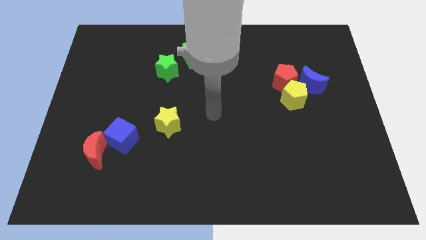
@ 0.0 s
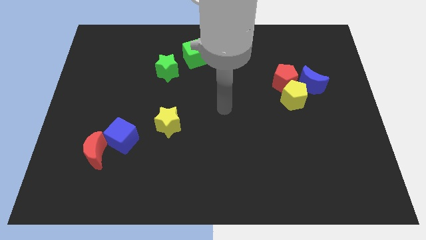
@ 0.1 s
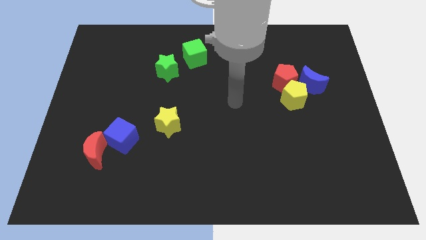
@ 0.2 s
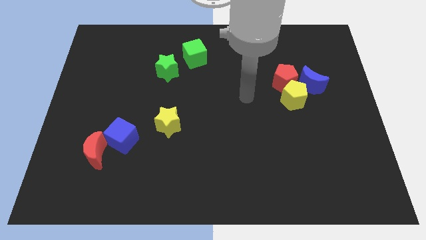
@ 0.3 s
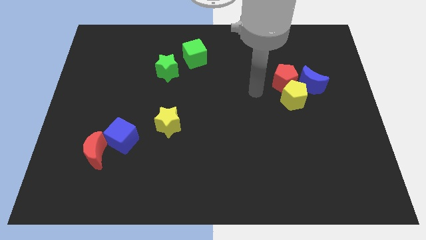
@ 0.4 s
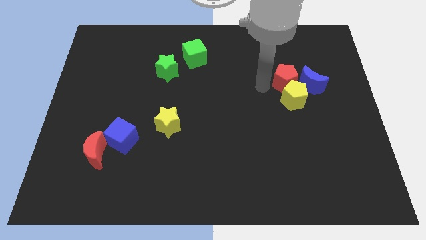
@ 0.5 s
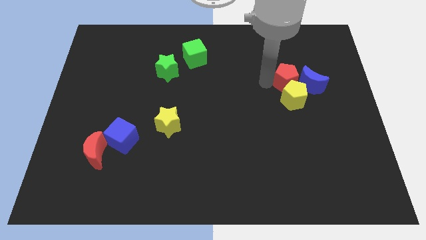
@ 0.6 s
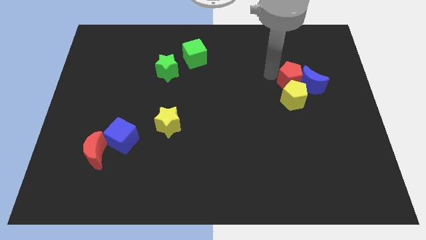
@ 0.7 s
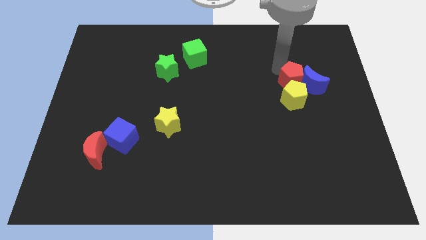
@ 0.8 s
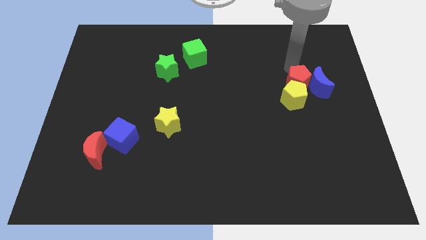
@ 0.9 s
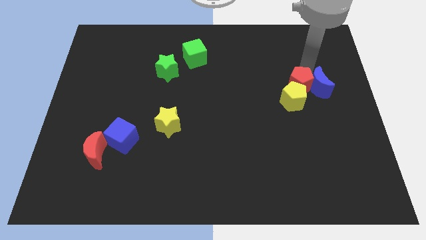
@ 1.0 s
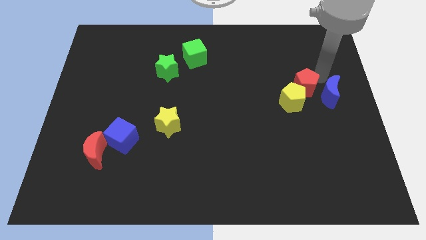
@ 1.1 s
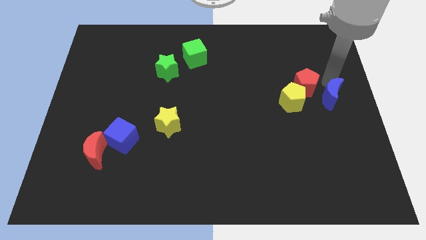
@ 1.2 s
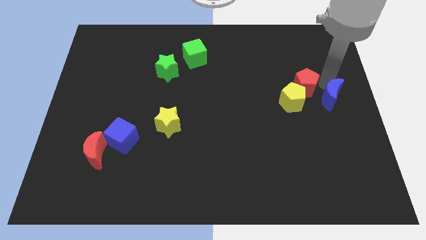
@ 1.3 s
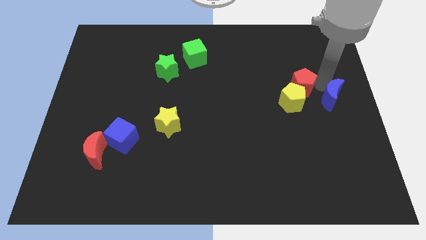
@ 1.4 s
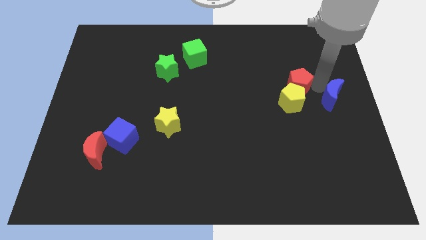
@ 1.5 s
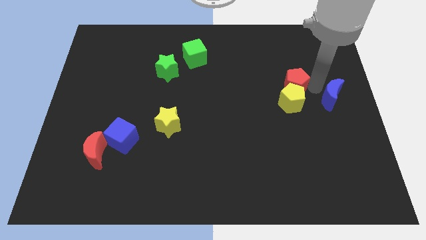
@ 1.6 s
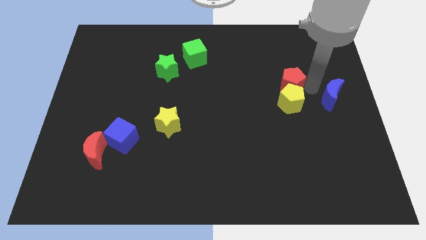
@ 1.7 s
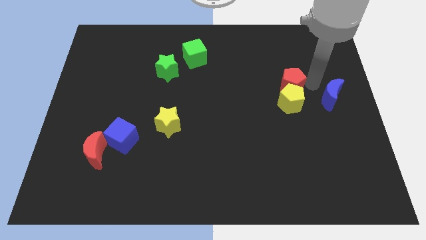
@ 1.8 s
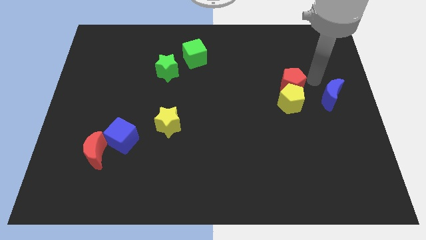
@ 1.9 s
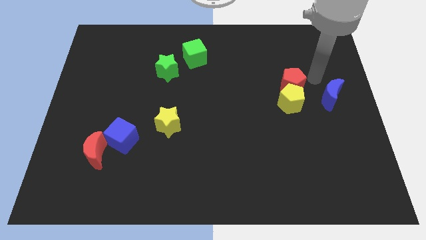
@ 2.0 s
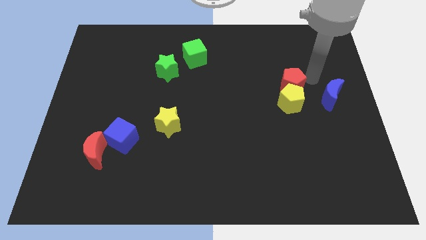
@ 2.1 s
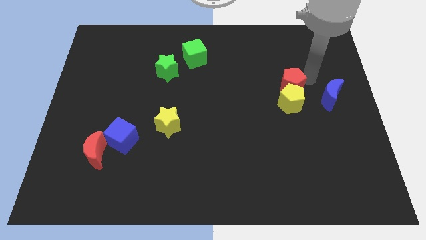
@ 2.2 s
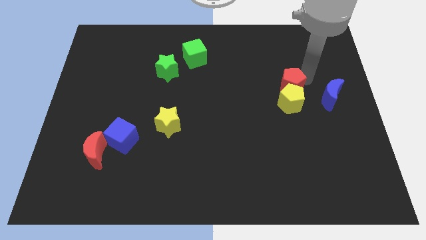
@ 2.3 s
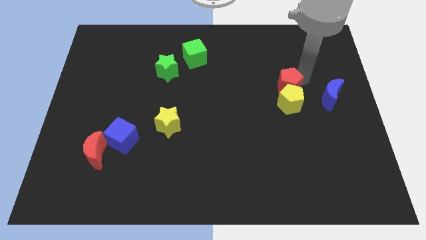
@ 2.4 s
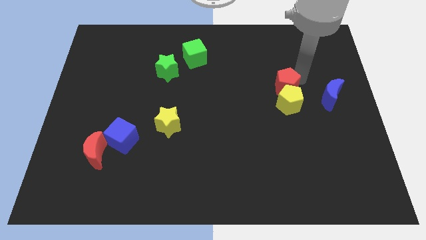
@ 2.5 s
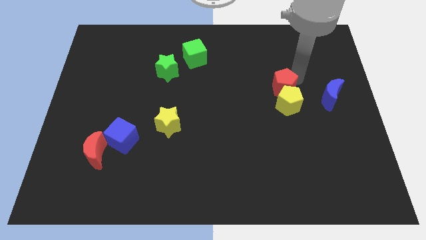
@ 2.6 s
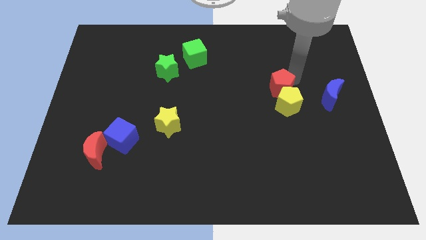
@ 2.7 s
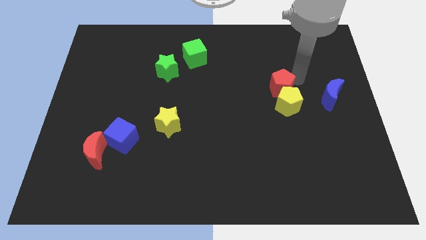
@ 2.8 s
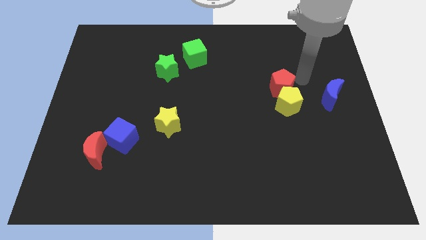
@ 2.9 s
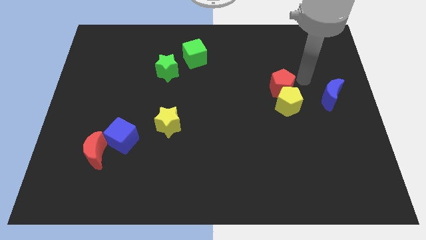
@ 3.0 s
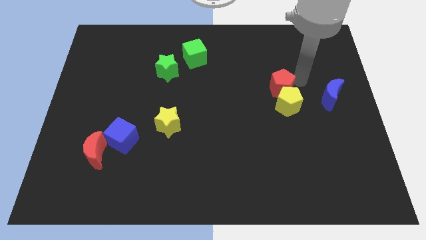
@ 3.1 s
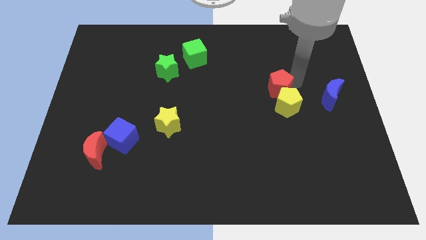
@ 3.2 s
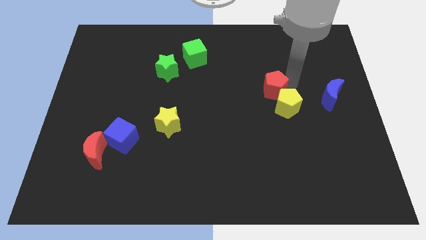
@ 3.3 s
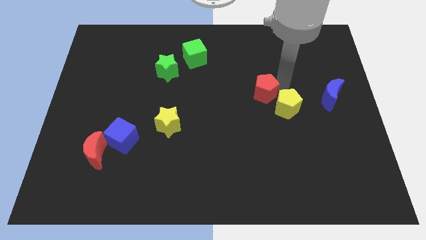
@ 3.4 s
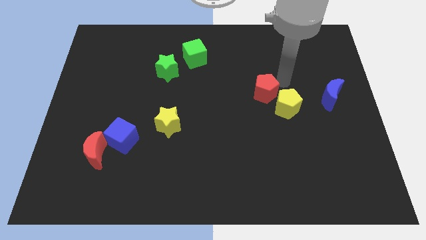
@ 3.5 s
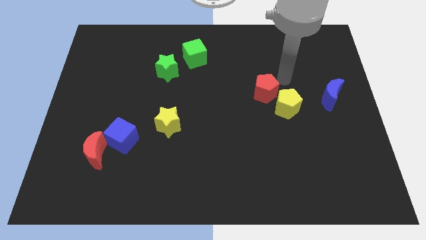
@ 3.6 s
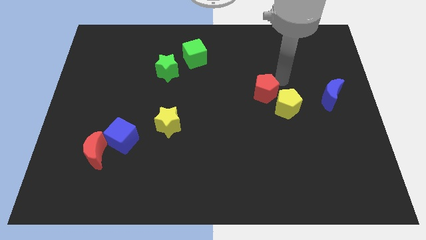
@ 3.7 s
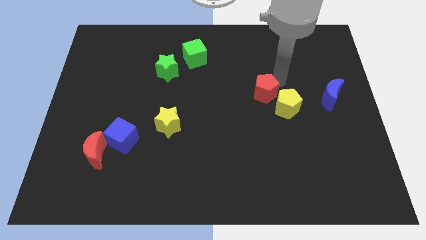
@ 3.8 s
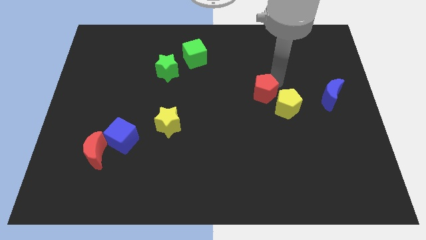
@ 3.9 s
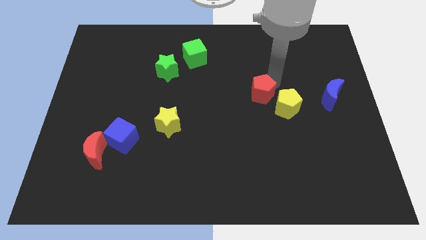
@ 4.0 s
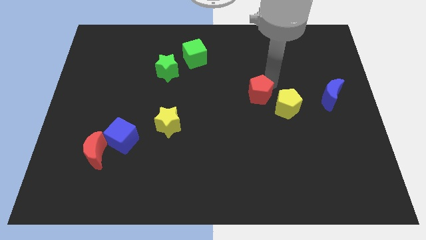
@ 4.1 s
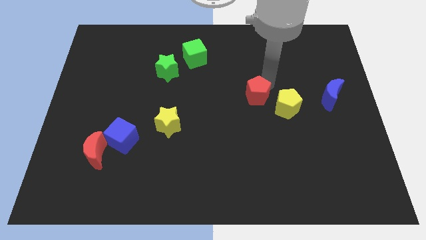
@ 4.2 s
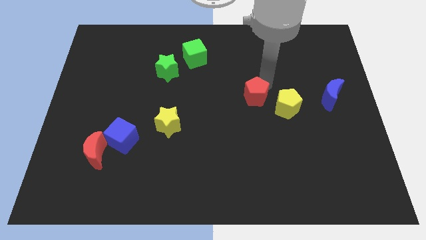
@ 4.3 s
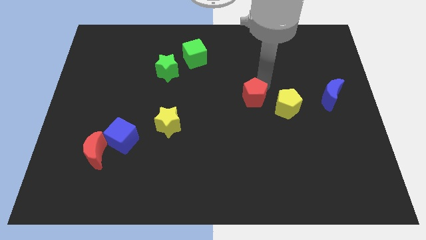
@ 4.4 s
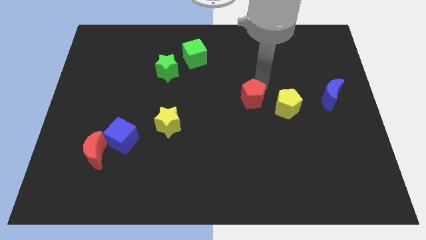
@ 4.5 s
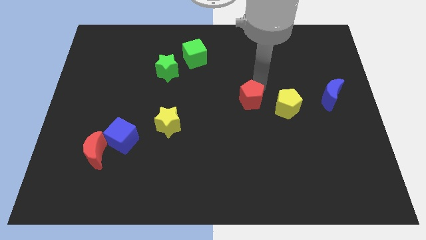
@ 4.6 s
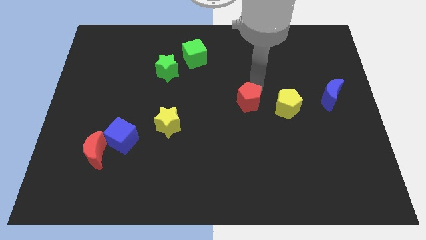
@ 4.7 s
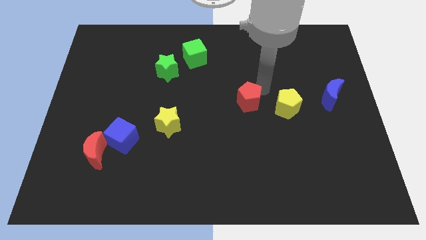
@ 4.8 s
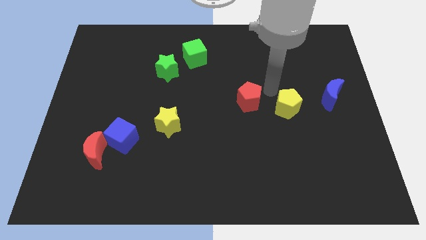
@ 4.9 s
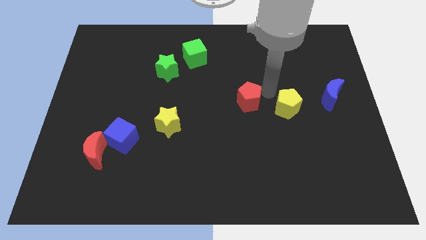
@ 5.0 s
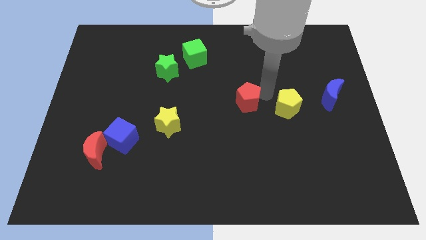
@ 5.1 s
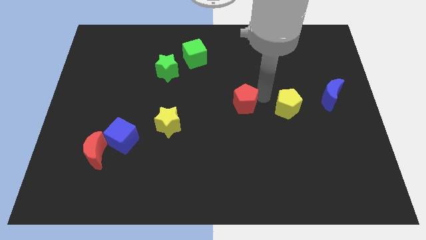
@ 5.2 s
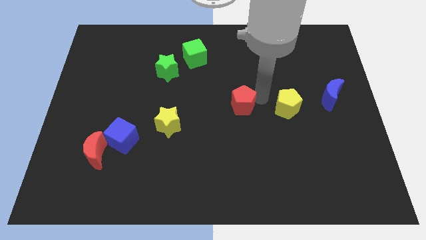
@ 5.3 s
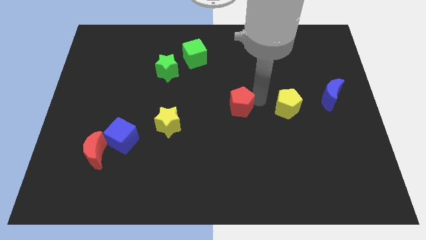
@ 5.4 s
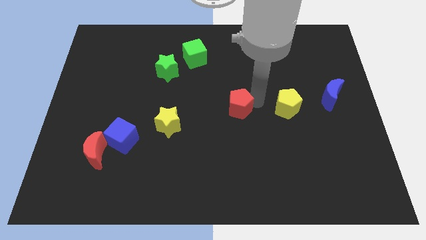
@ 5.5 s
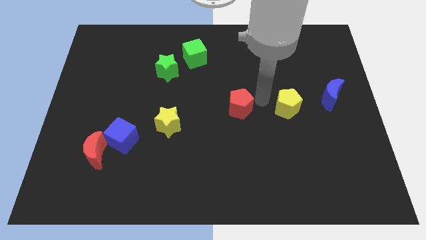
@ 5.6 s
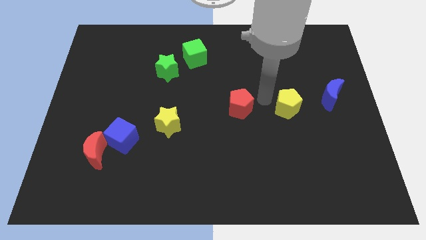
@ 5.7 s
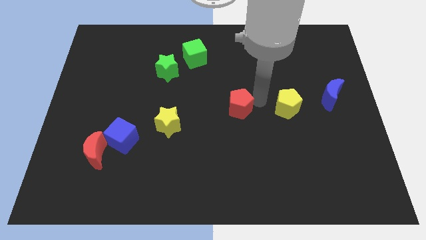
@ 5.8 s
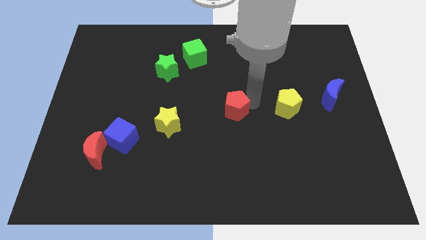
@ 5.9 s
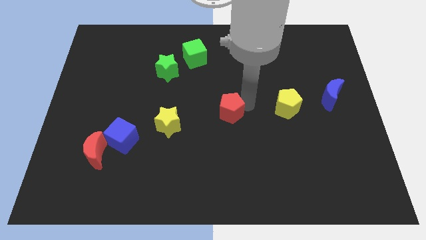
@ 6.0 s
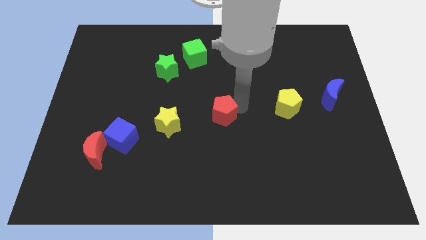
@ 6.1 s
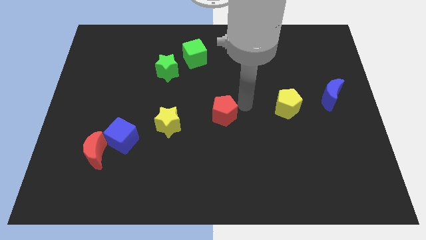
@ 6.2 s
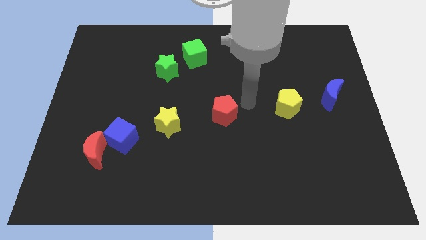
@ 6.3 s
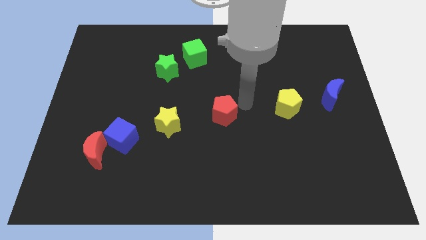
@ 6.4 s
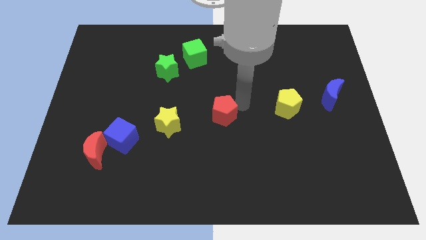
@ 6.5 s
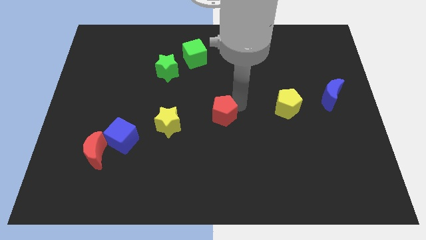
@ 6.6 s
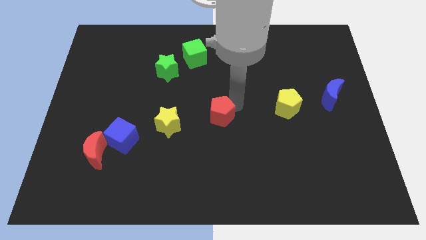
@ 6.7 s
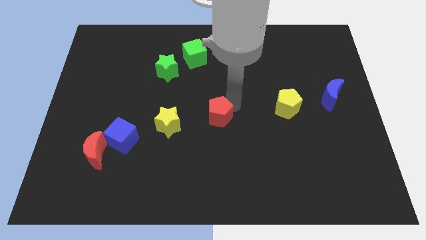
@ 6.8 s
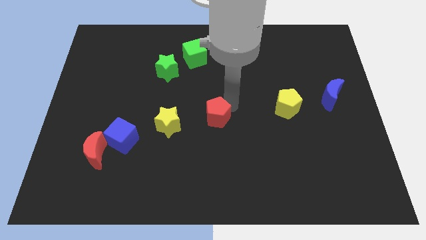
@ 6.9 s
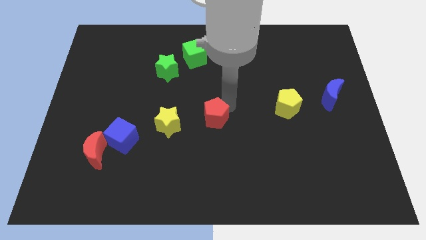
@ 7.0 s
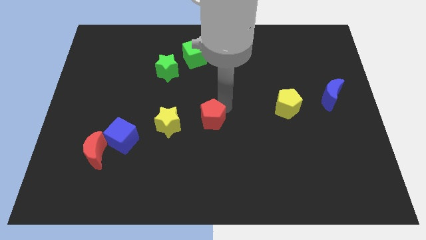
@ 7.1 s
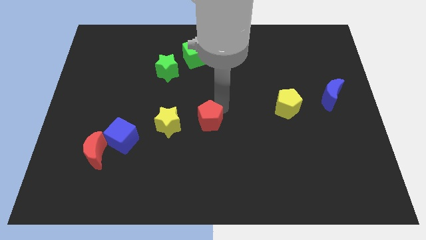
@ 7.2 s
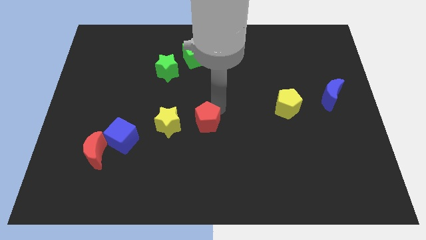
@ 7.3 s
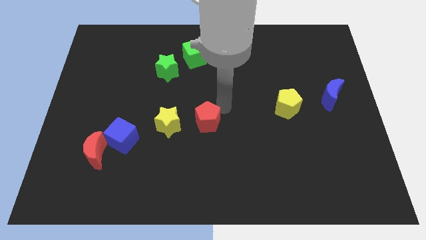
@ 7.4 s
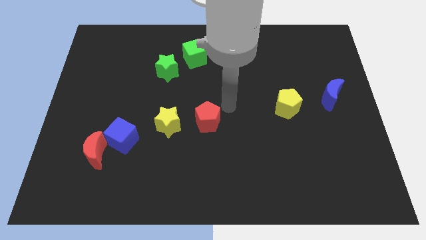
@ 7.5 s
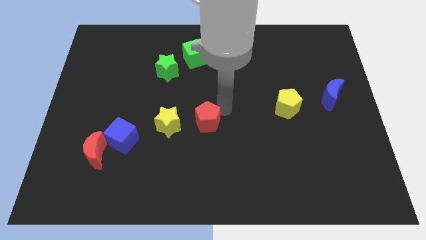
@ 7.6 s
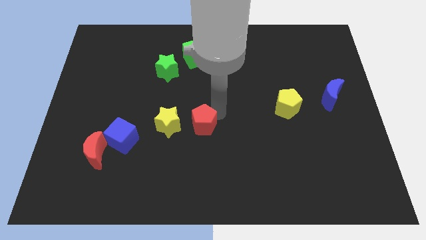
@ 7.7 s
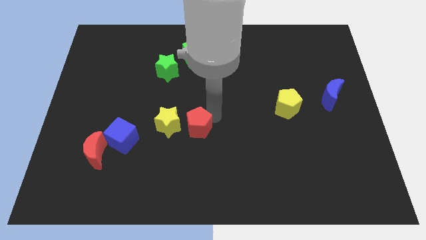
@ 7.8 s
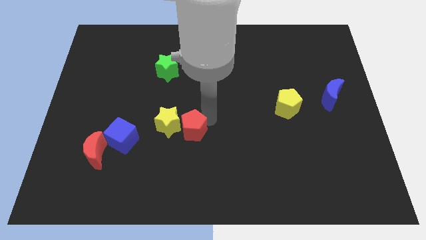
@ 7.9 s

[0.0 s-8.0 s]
push the red pentagon right of the blue cube
